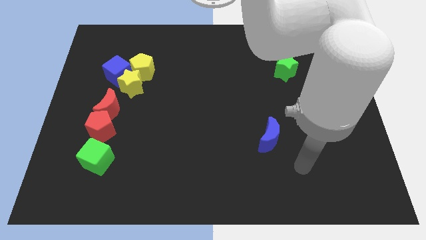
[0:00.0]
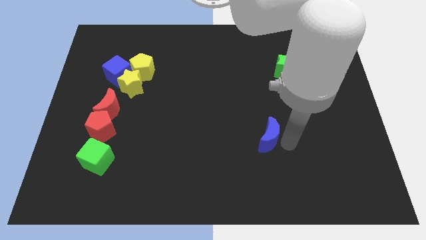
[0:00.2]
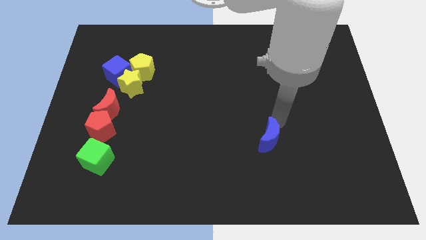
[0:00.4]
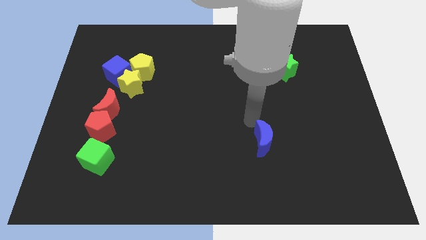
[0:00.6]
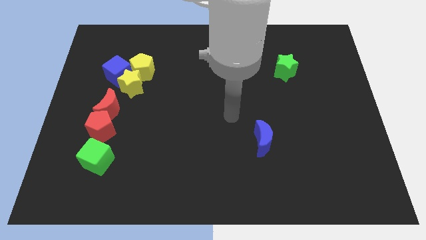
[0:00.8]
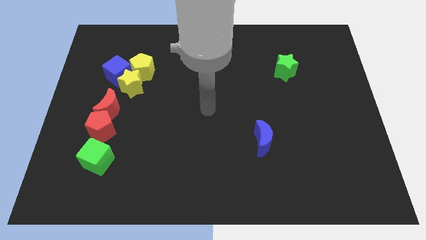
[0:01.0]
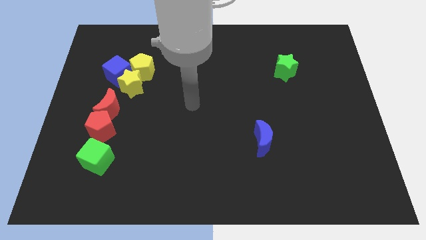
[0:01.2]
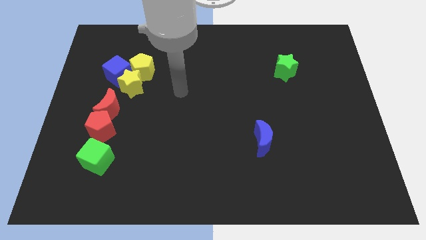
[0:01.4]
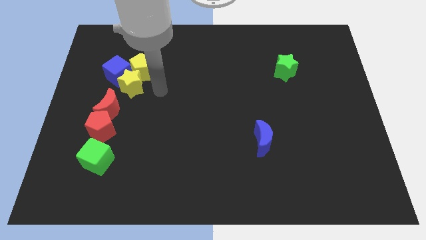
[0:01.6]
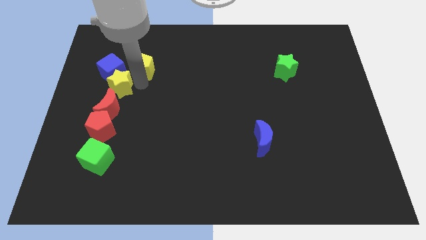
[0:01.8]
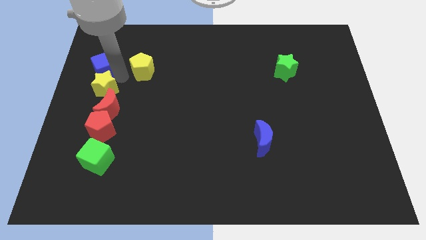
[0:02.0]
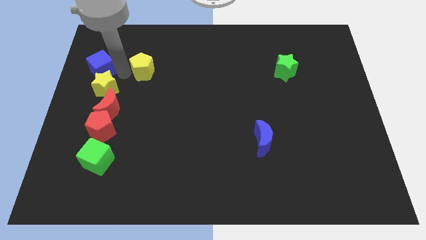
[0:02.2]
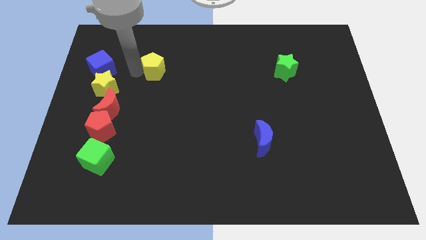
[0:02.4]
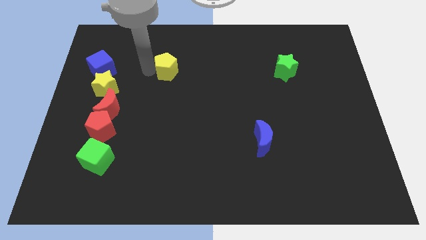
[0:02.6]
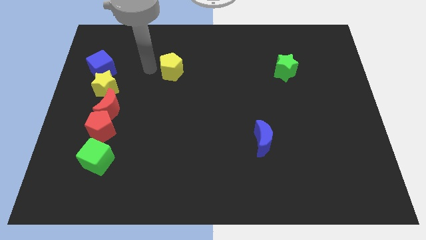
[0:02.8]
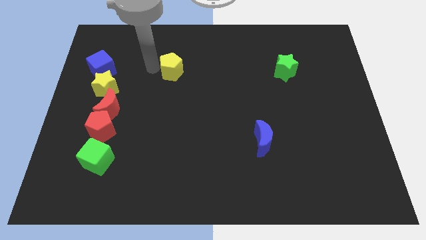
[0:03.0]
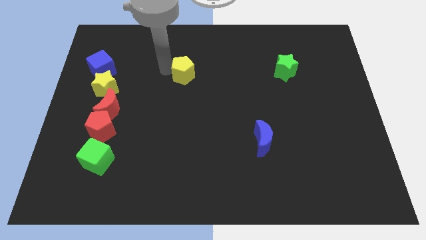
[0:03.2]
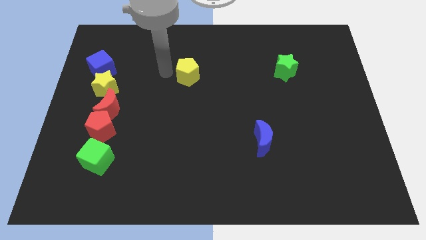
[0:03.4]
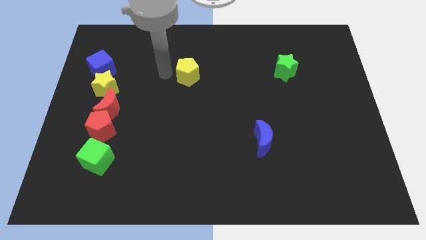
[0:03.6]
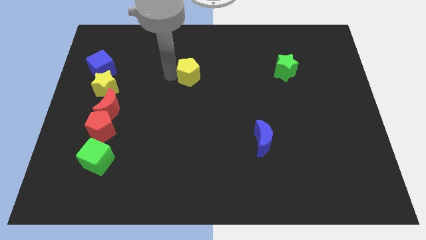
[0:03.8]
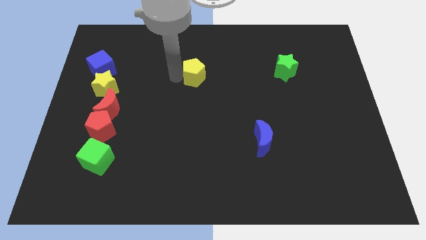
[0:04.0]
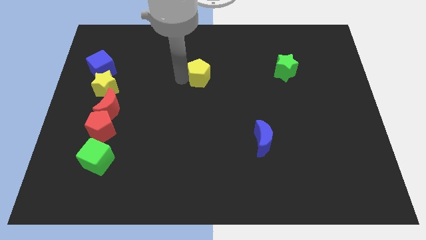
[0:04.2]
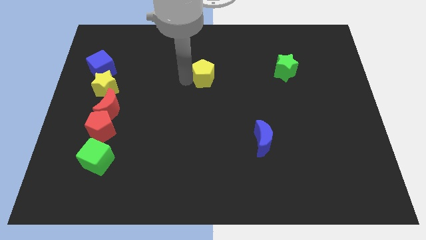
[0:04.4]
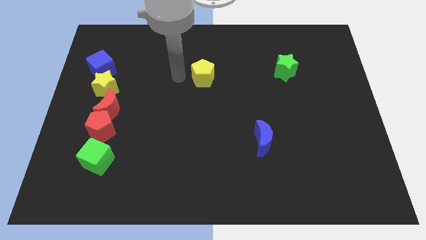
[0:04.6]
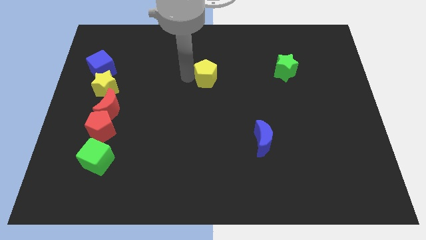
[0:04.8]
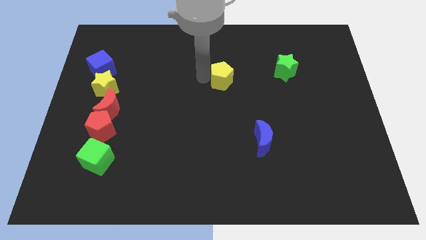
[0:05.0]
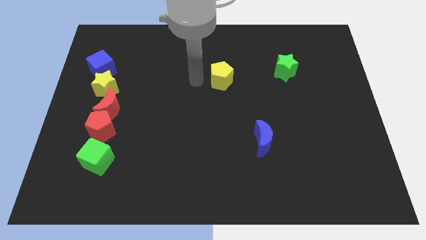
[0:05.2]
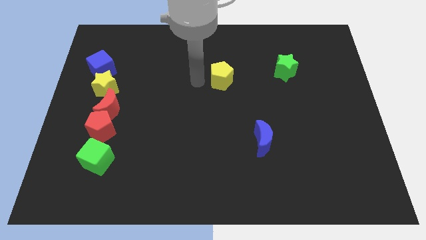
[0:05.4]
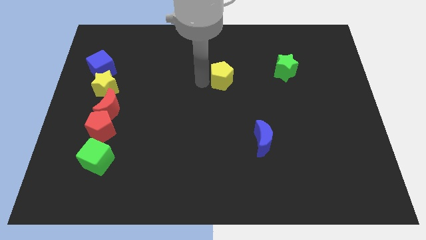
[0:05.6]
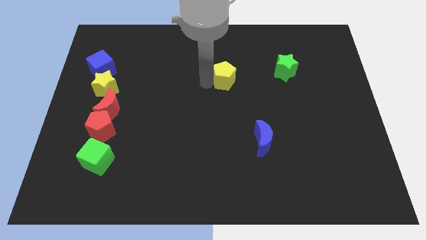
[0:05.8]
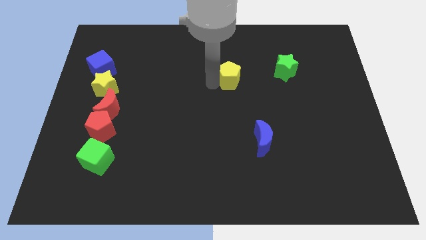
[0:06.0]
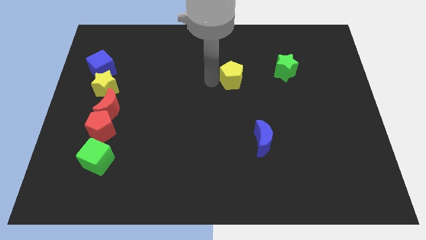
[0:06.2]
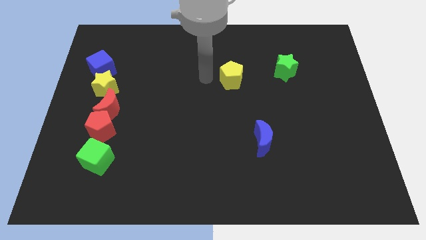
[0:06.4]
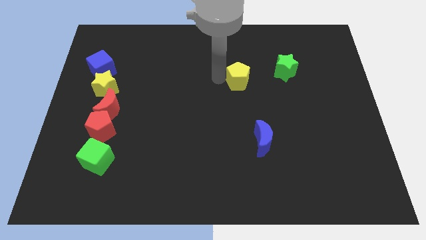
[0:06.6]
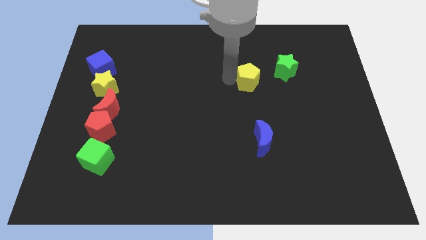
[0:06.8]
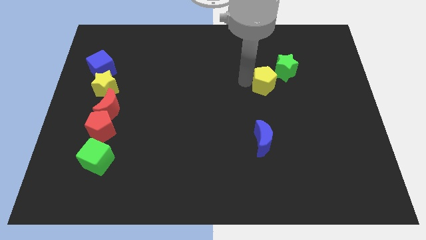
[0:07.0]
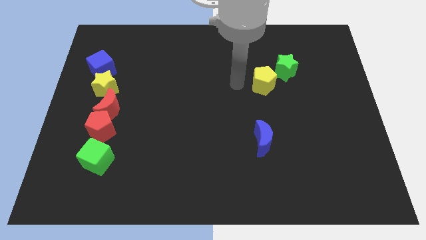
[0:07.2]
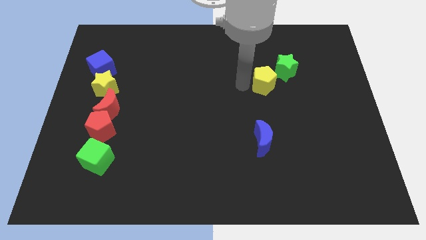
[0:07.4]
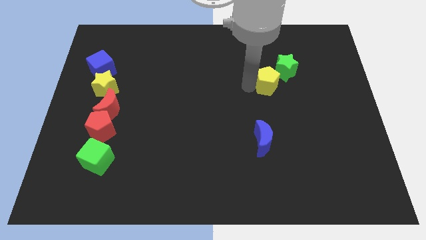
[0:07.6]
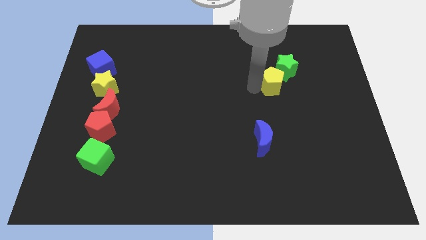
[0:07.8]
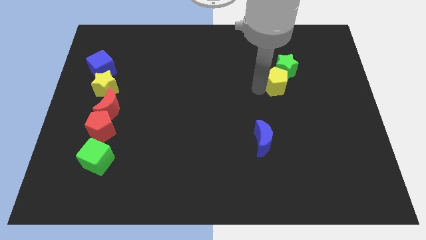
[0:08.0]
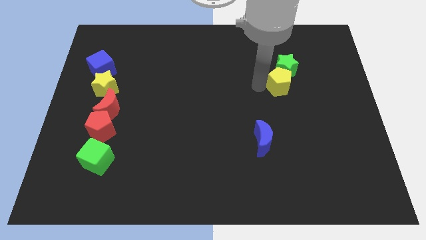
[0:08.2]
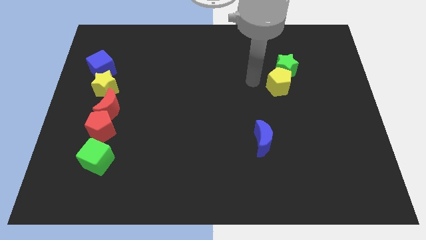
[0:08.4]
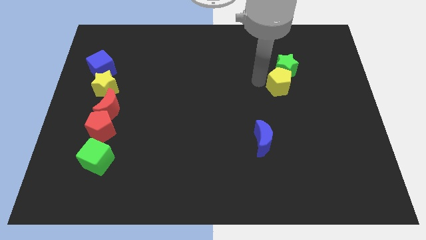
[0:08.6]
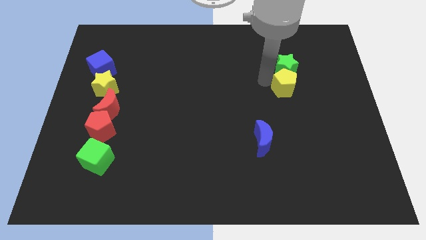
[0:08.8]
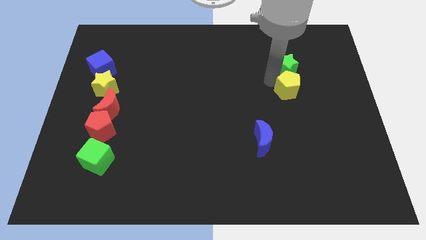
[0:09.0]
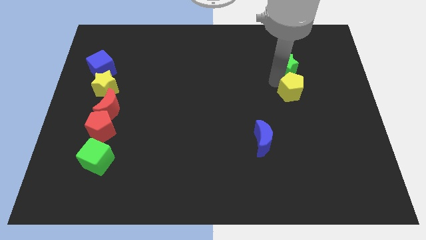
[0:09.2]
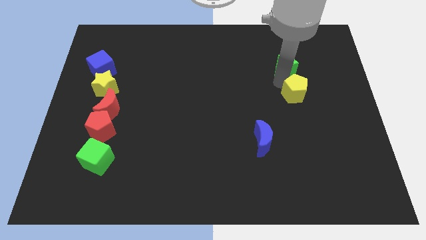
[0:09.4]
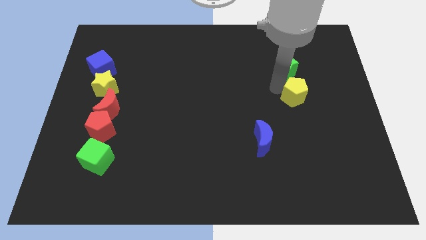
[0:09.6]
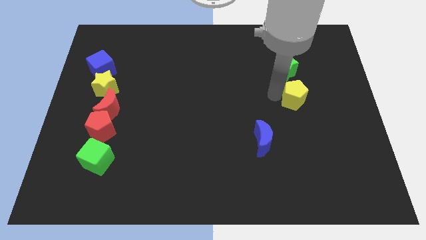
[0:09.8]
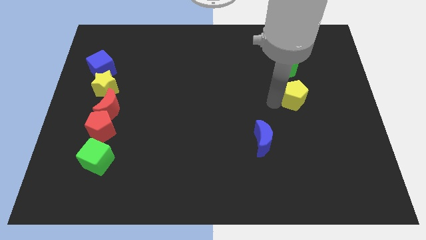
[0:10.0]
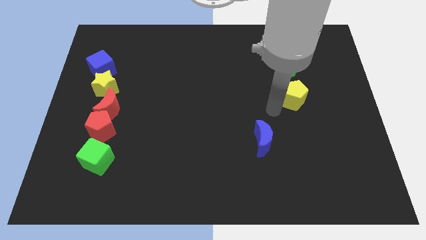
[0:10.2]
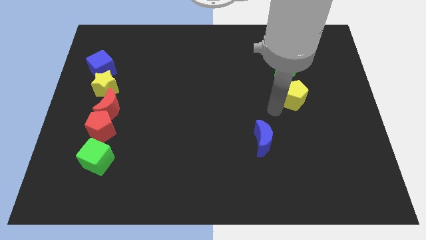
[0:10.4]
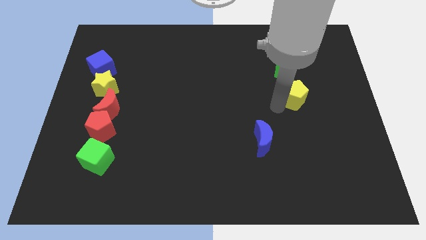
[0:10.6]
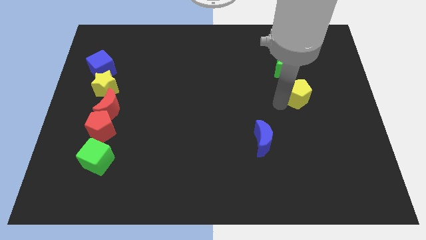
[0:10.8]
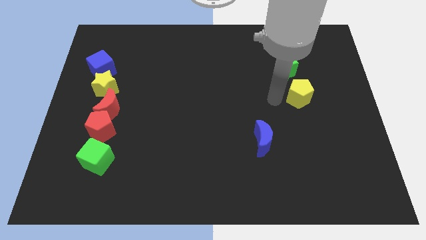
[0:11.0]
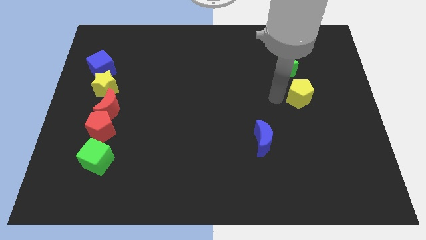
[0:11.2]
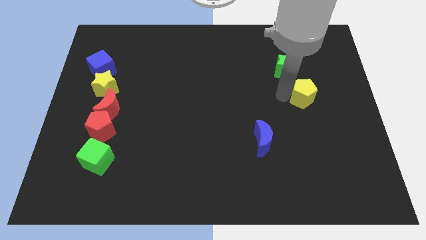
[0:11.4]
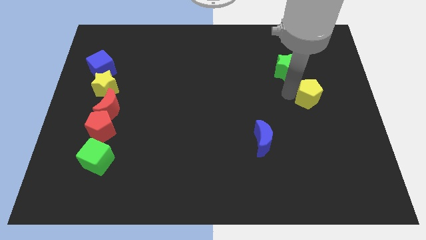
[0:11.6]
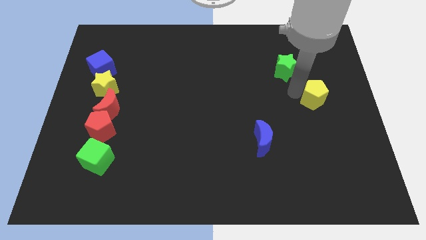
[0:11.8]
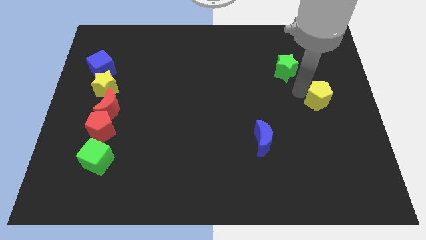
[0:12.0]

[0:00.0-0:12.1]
push the yellow pentagon to the right side
